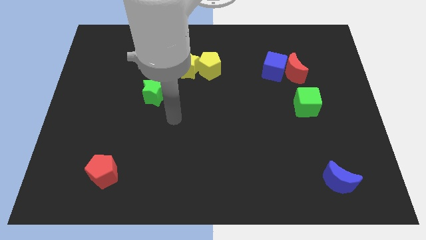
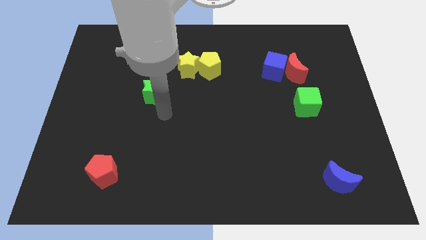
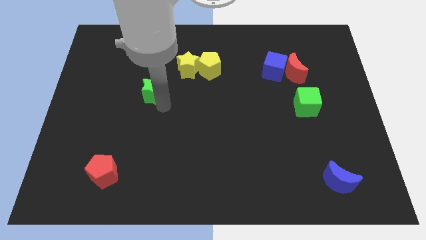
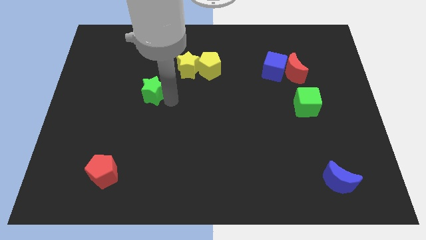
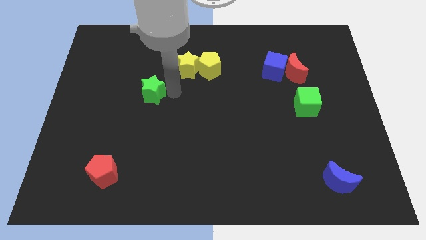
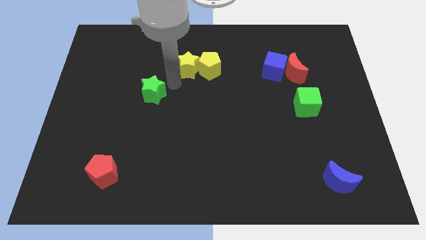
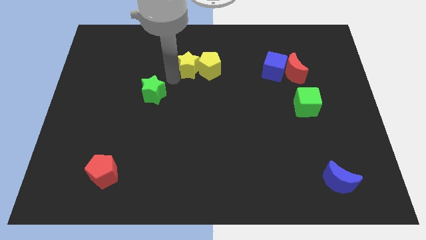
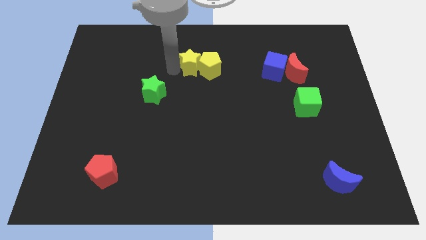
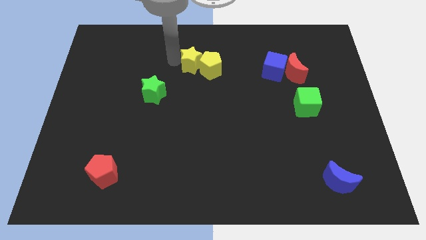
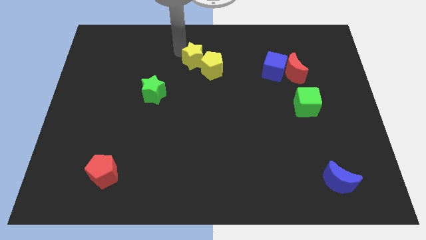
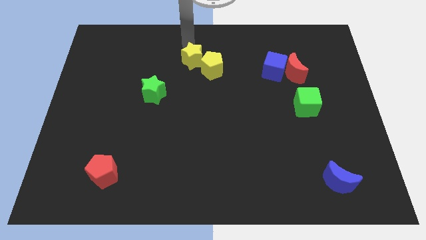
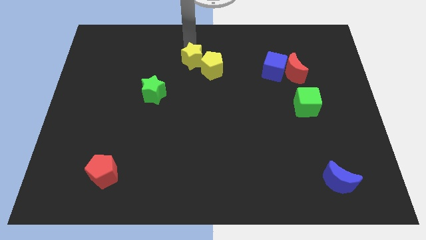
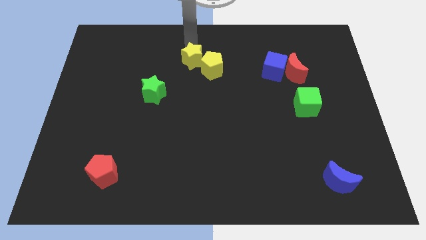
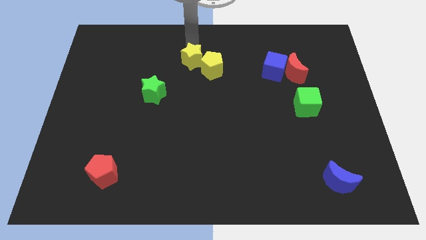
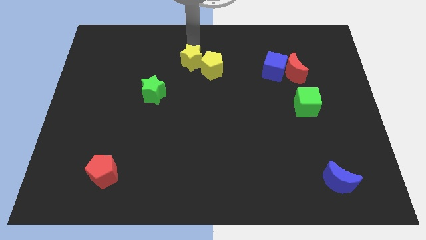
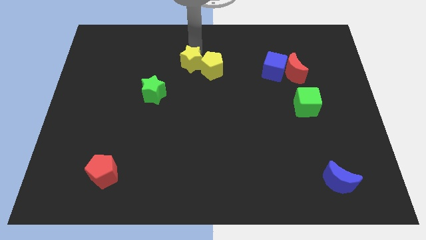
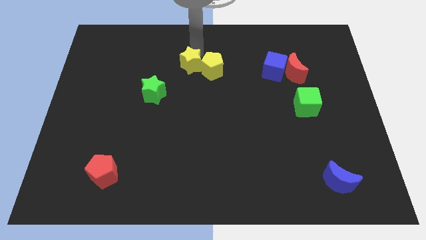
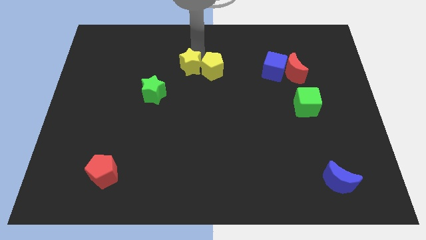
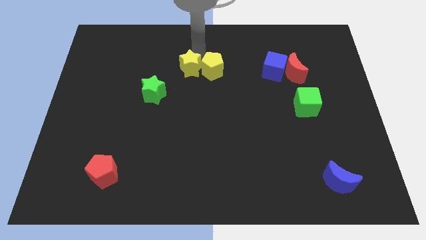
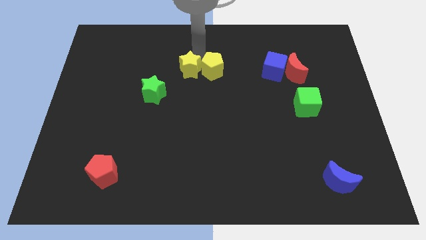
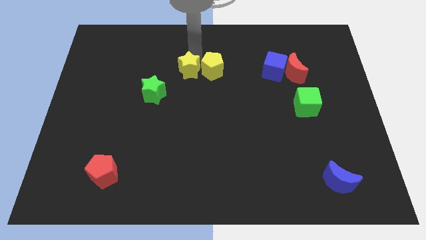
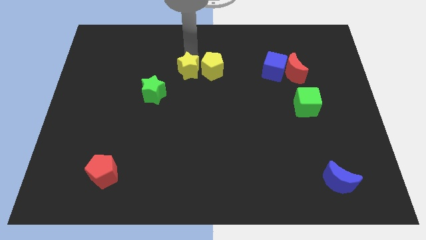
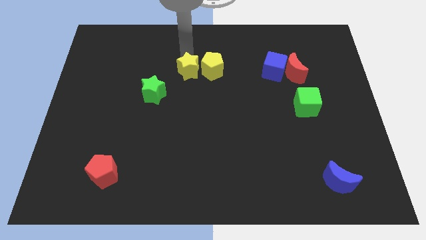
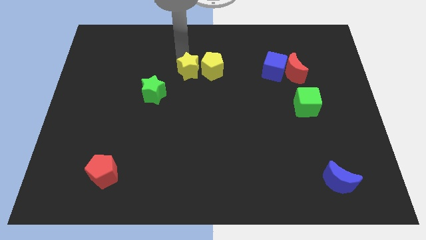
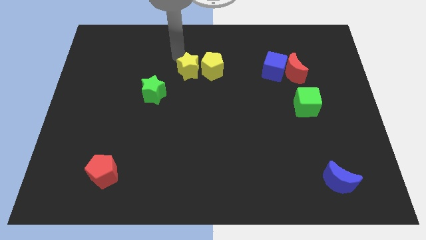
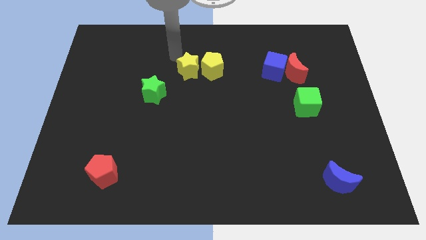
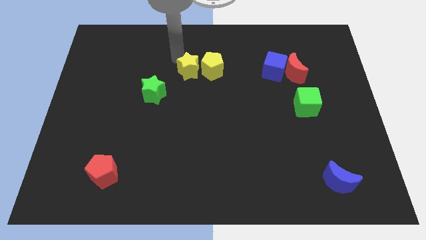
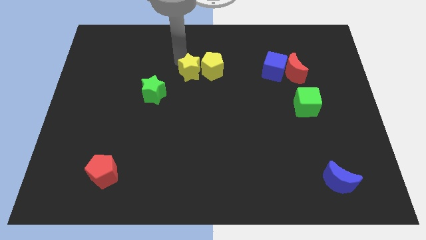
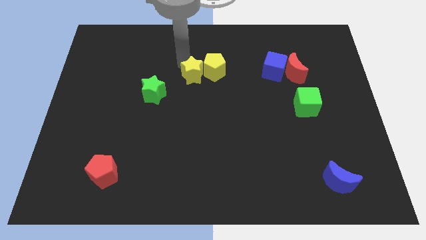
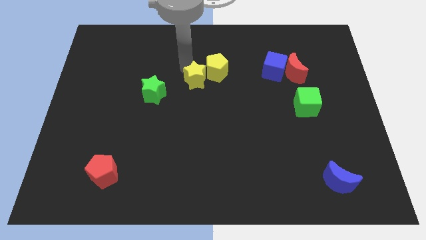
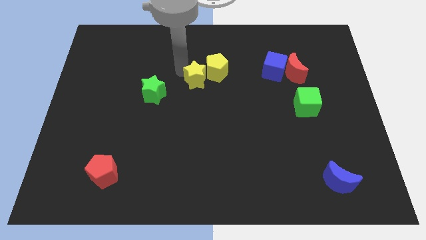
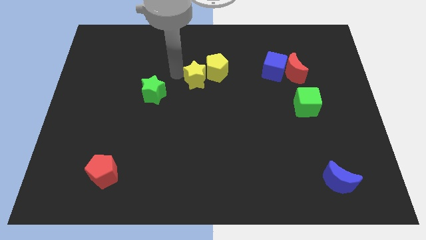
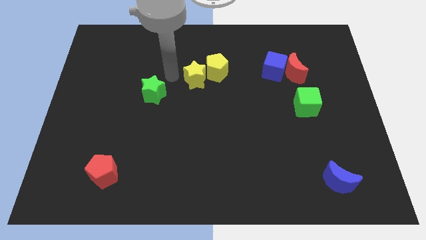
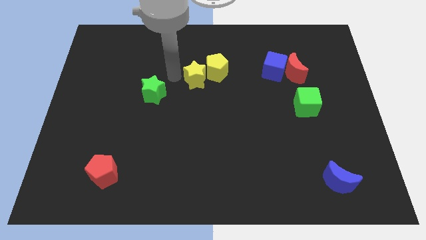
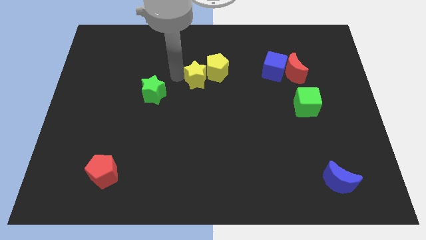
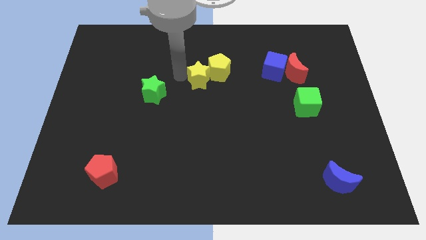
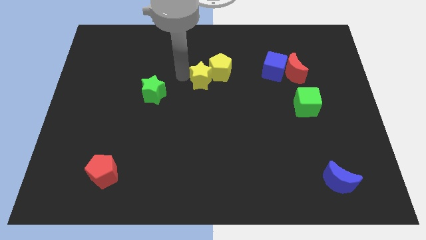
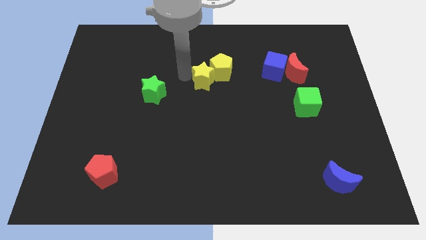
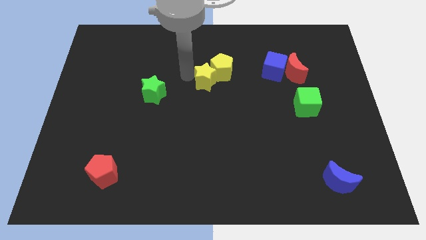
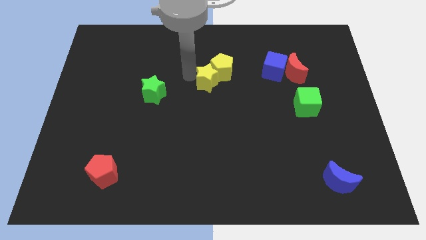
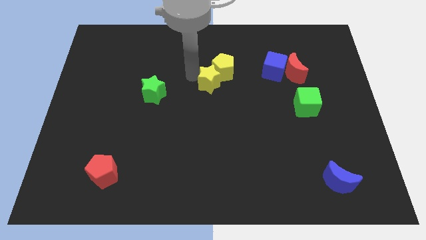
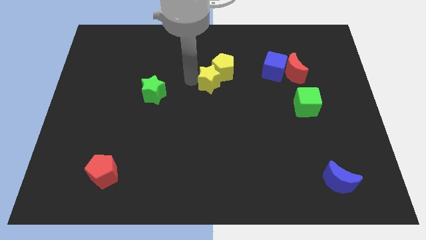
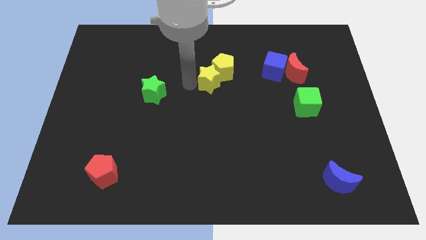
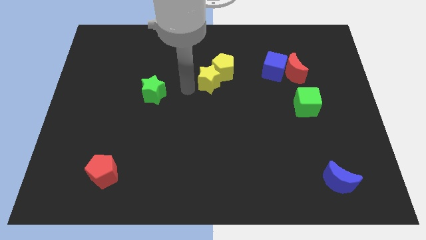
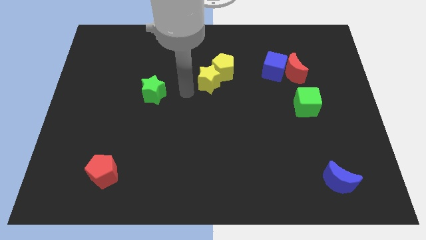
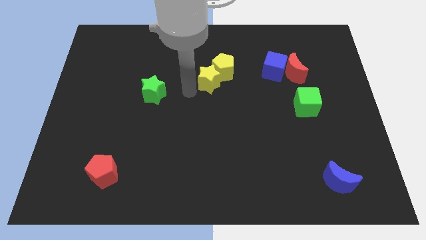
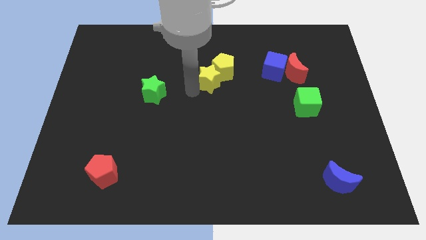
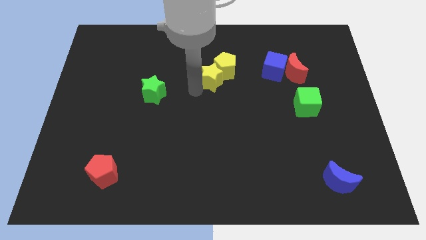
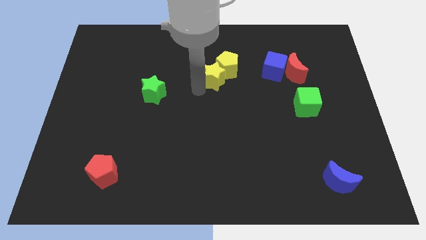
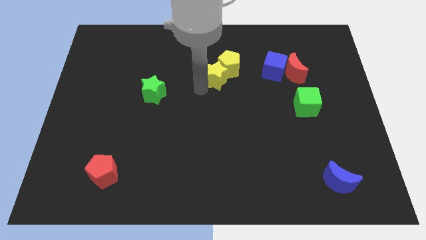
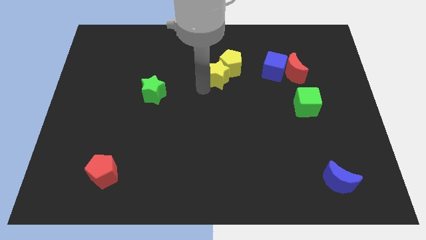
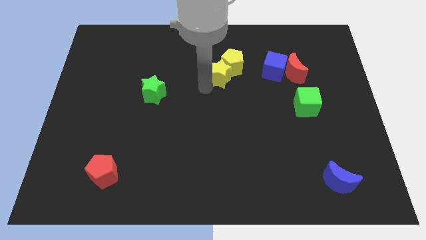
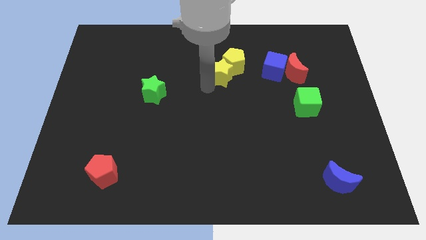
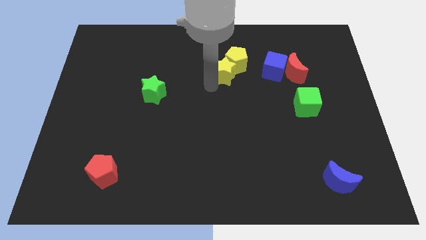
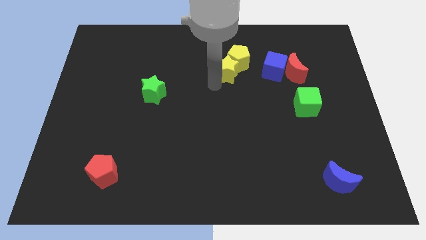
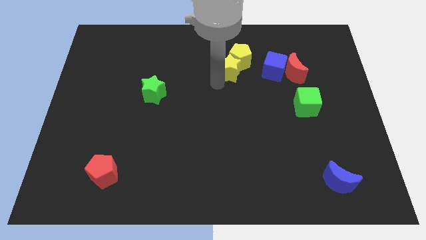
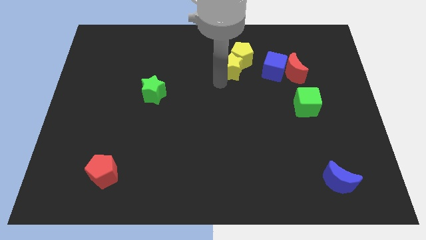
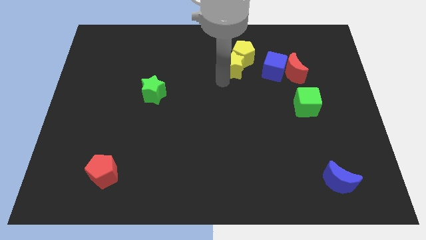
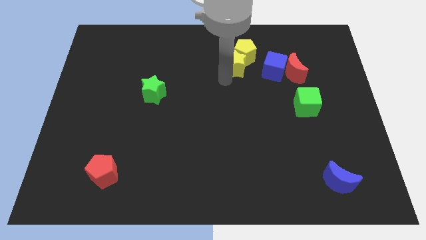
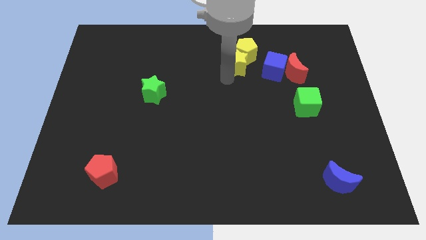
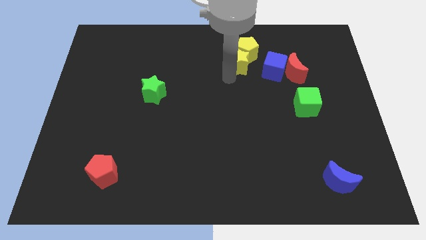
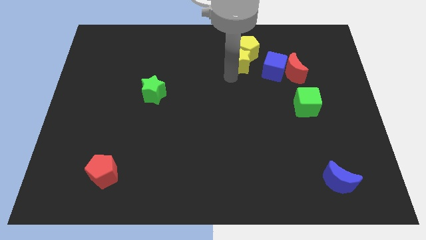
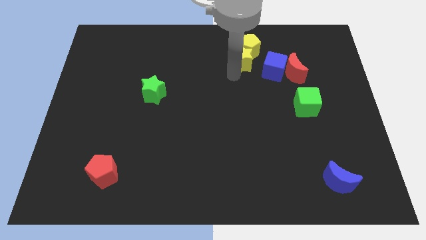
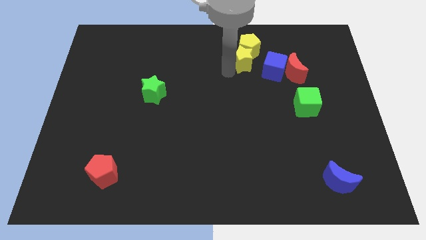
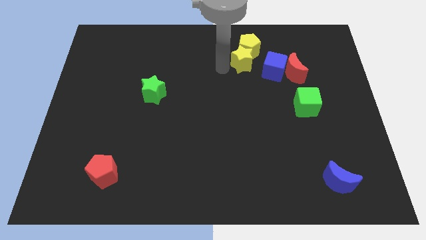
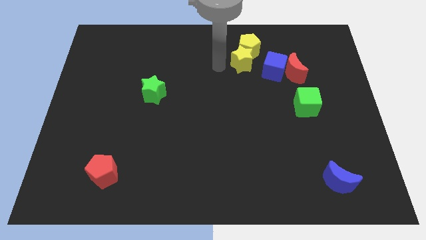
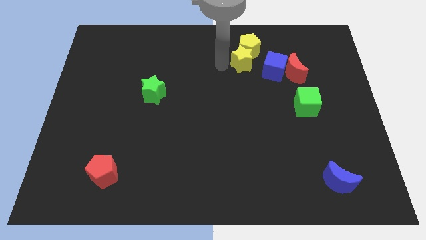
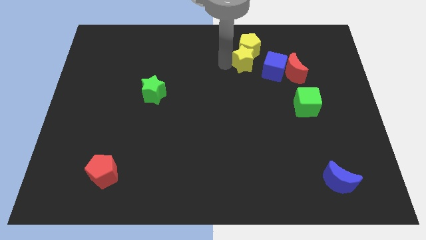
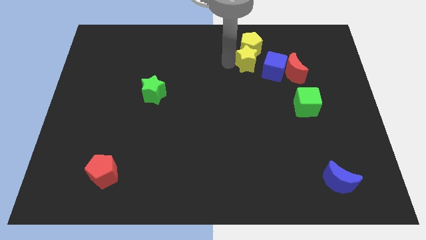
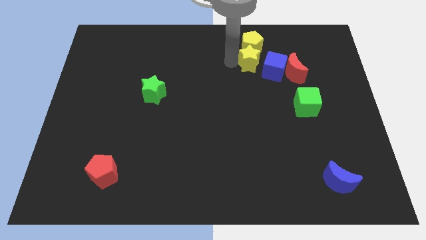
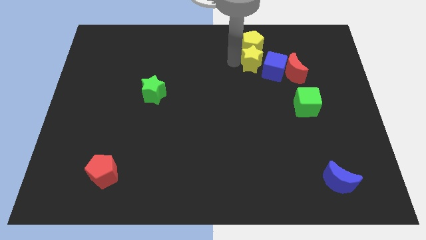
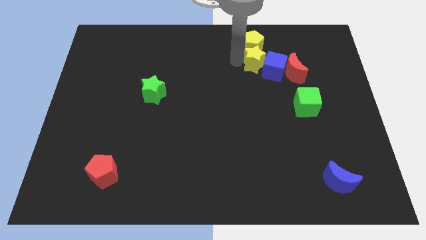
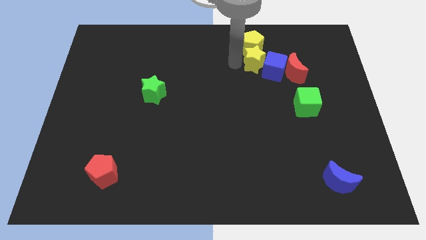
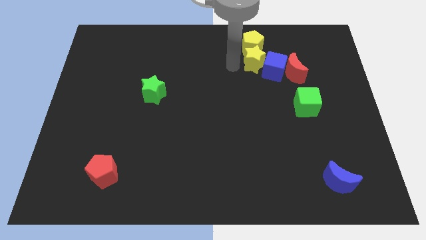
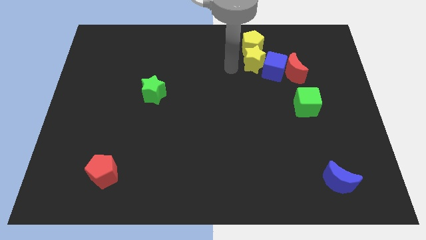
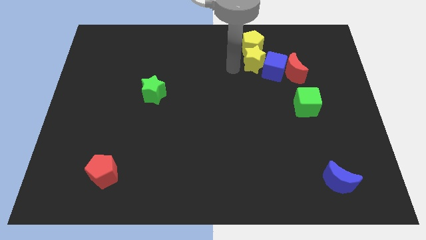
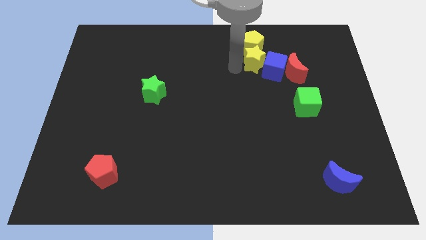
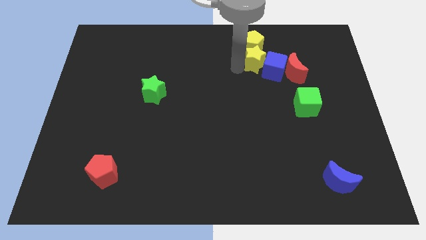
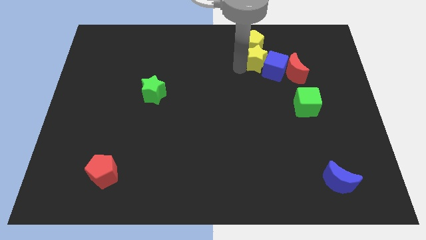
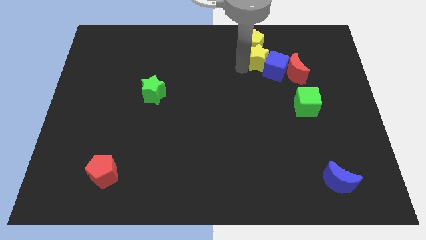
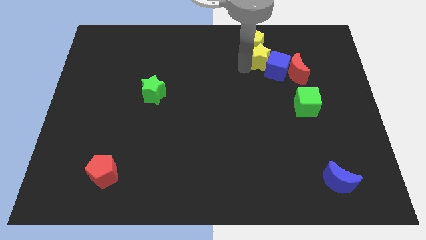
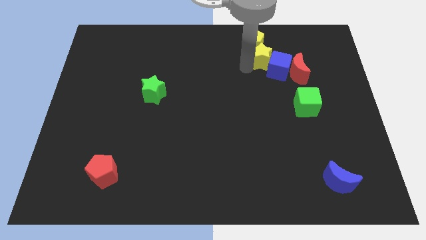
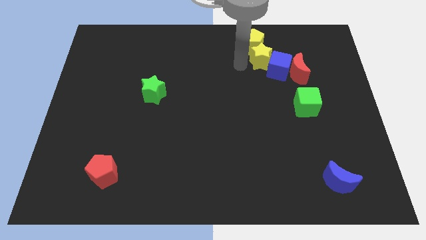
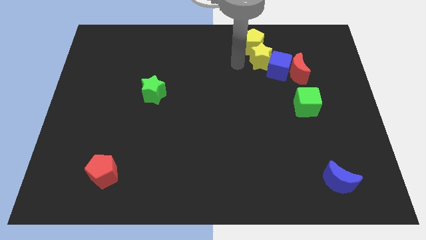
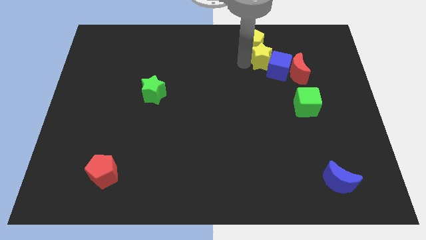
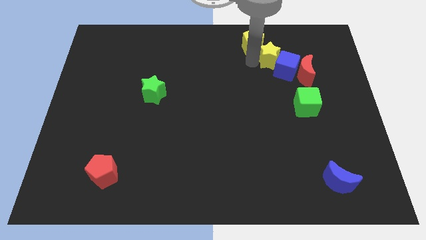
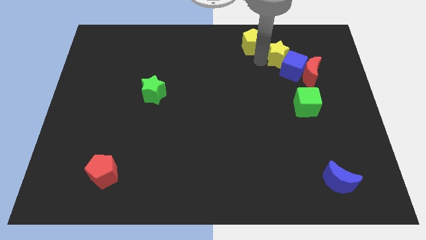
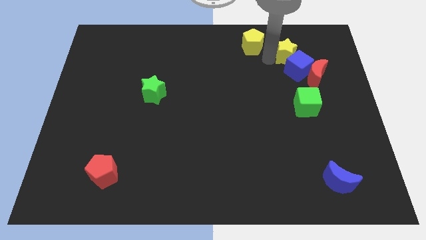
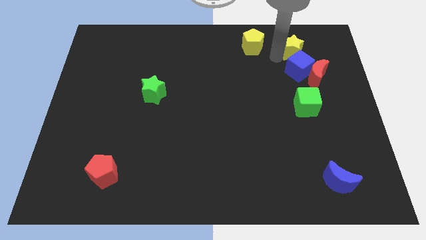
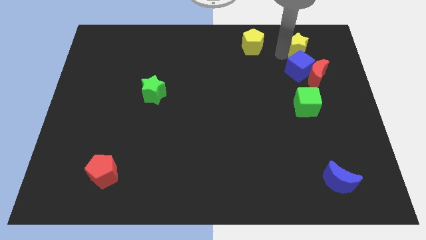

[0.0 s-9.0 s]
push the yellow star to the top right of the blue cube
